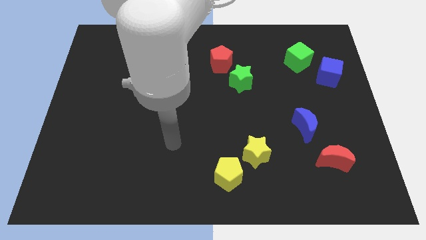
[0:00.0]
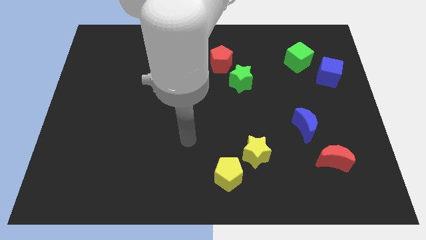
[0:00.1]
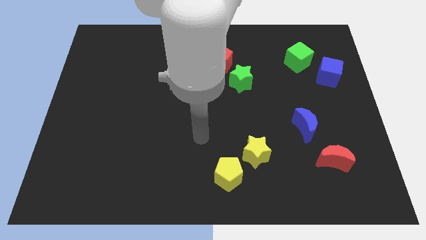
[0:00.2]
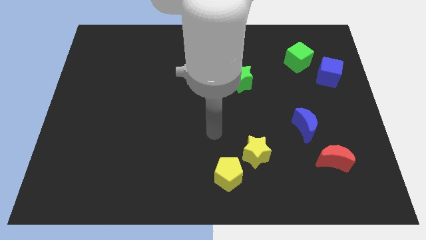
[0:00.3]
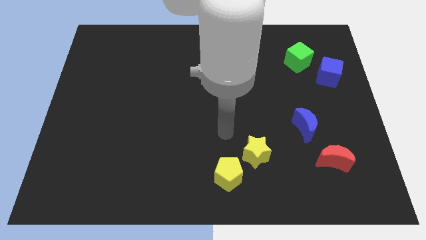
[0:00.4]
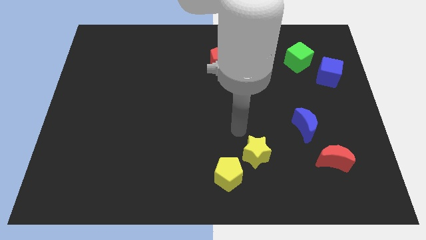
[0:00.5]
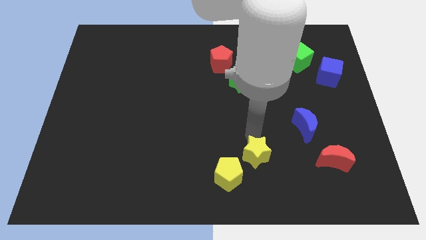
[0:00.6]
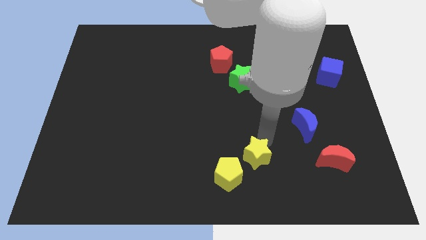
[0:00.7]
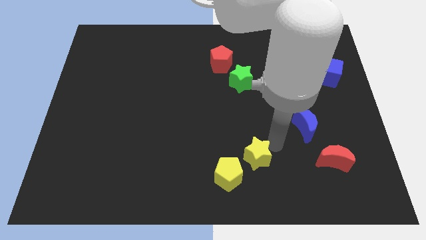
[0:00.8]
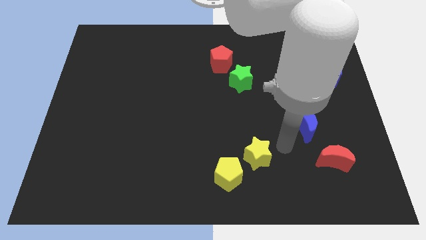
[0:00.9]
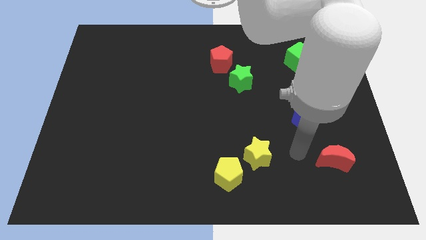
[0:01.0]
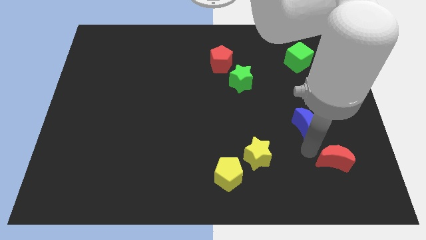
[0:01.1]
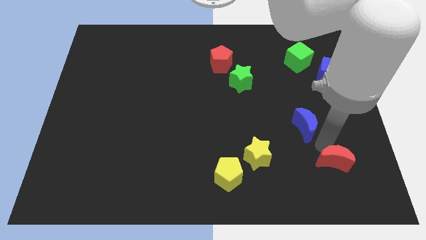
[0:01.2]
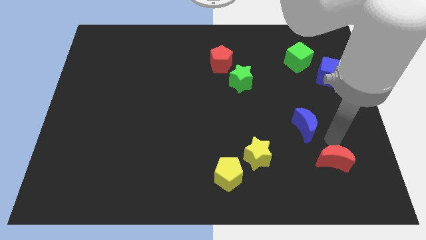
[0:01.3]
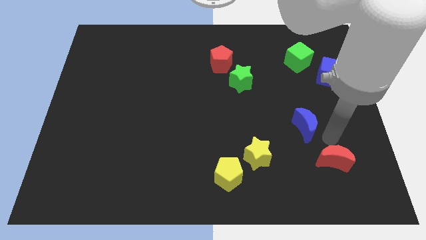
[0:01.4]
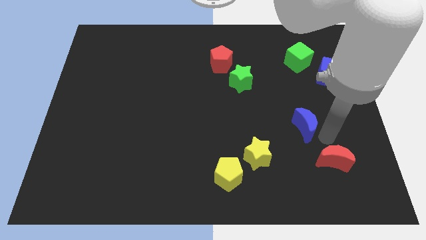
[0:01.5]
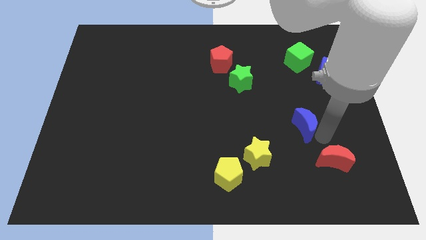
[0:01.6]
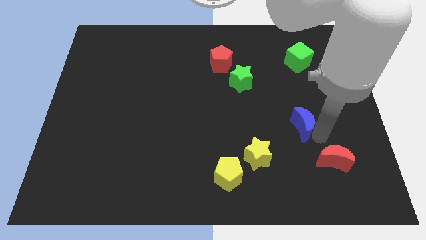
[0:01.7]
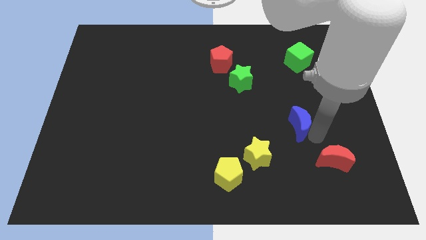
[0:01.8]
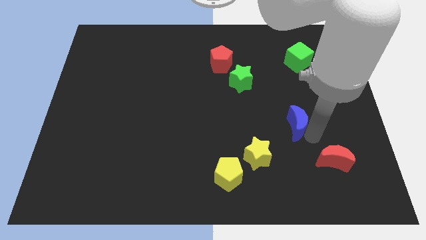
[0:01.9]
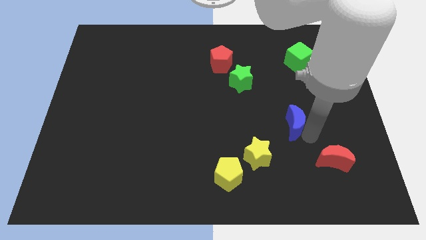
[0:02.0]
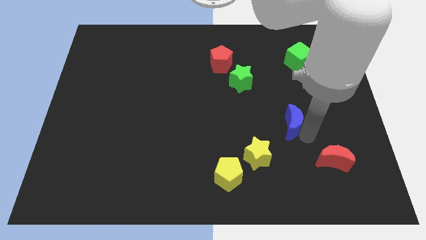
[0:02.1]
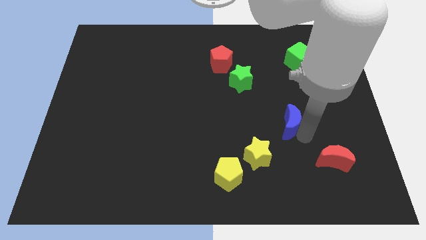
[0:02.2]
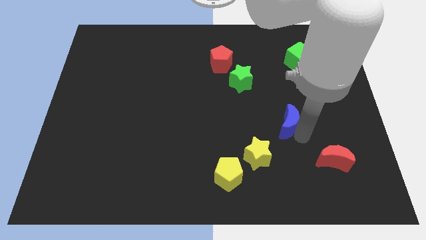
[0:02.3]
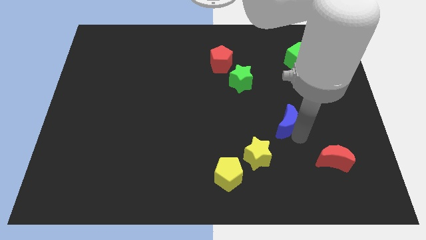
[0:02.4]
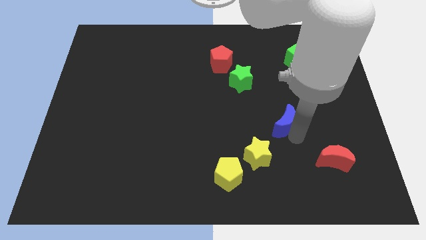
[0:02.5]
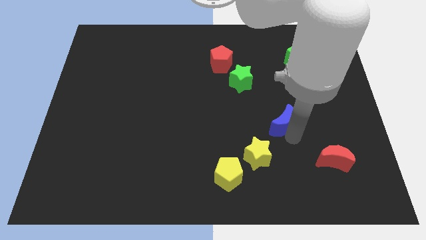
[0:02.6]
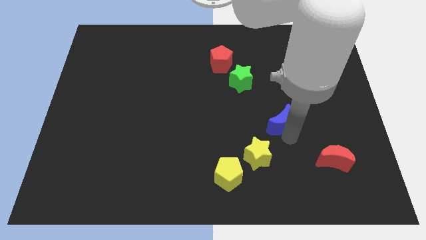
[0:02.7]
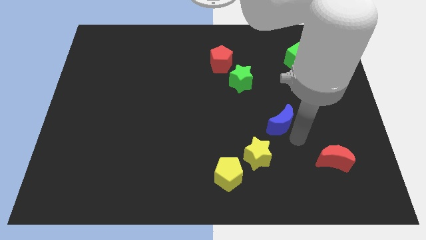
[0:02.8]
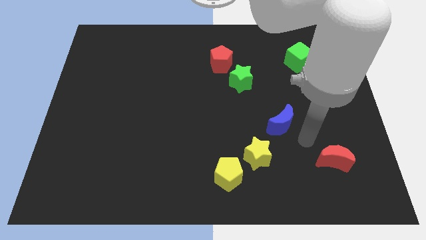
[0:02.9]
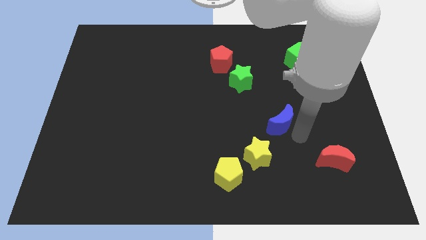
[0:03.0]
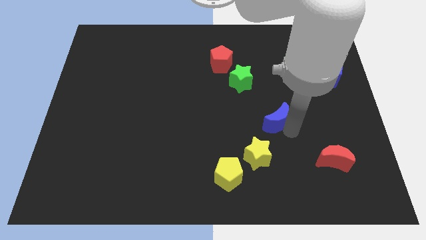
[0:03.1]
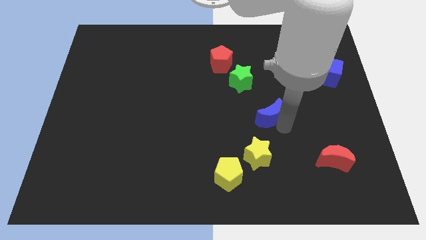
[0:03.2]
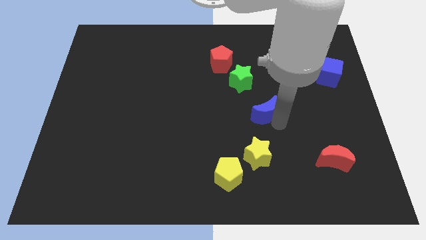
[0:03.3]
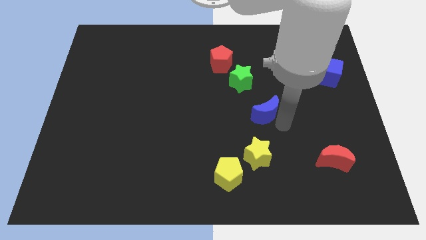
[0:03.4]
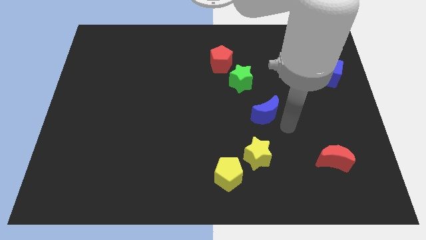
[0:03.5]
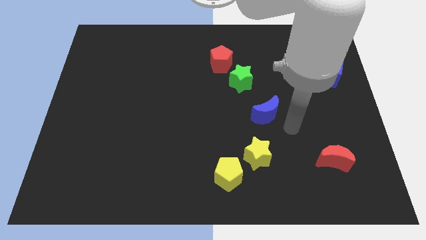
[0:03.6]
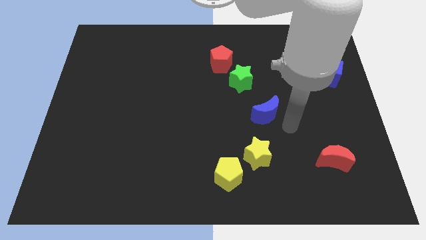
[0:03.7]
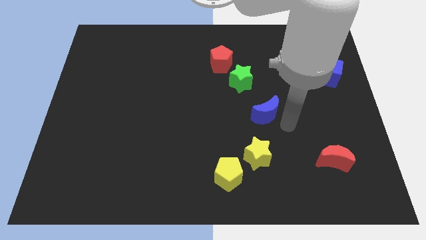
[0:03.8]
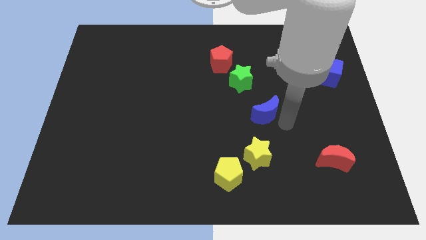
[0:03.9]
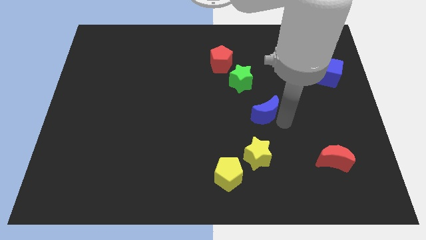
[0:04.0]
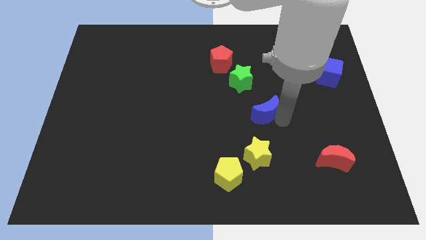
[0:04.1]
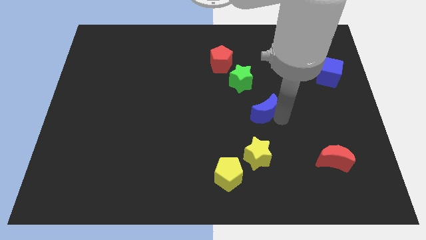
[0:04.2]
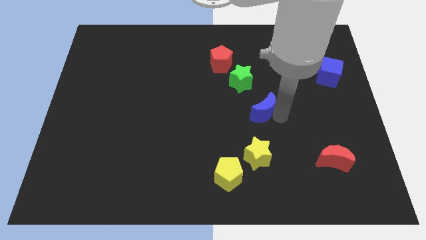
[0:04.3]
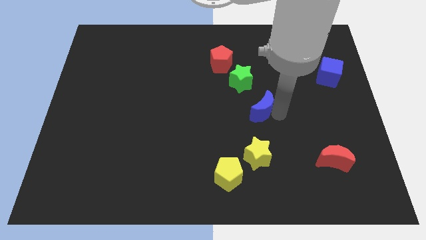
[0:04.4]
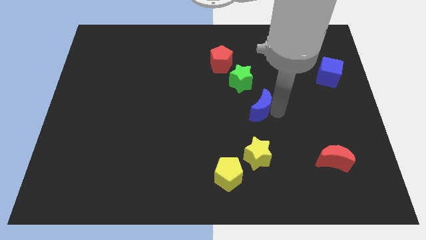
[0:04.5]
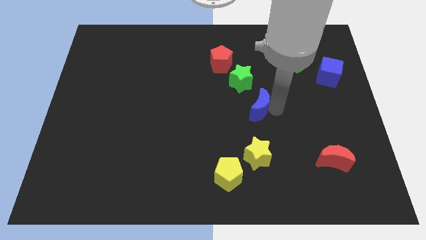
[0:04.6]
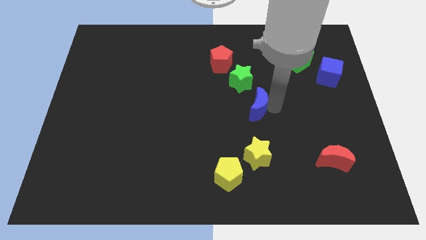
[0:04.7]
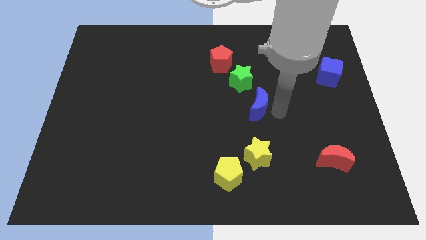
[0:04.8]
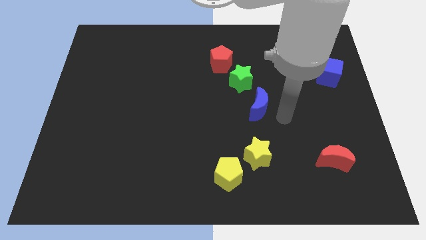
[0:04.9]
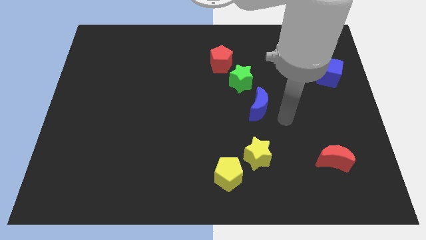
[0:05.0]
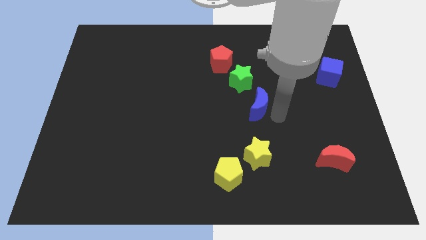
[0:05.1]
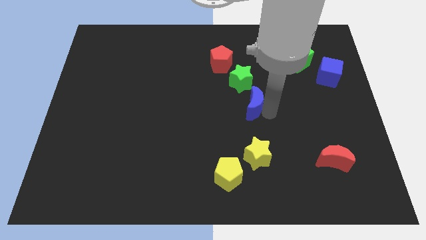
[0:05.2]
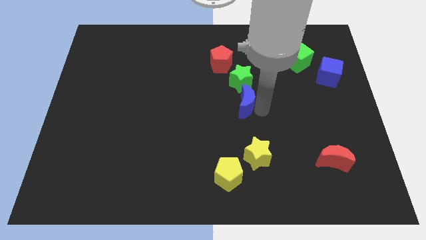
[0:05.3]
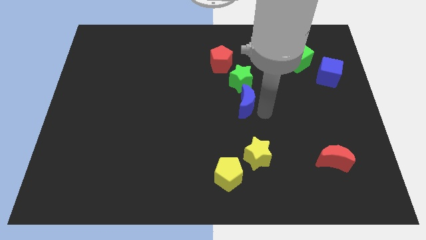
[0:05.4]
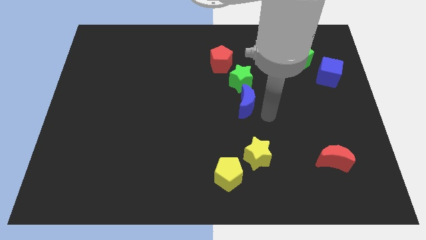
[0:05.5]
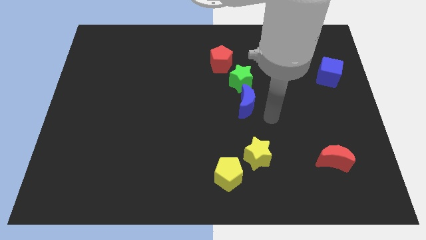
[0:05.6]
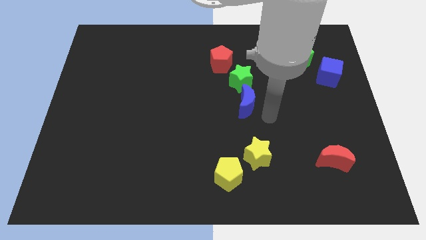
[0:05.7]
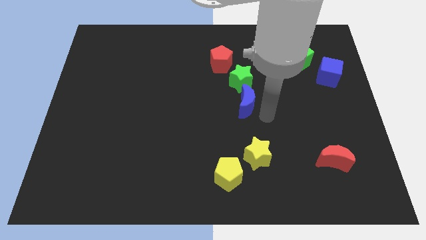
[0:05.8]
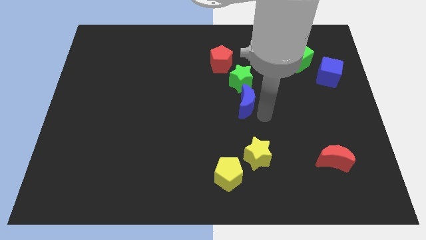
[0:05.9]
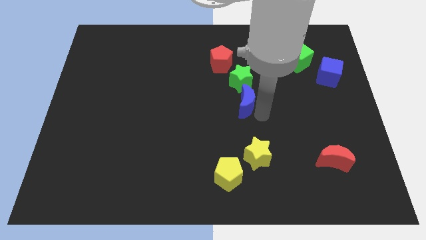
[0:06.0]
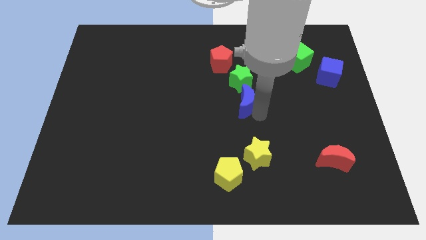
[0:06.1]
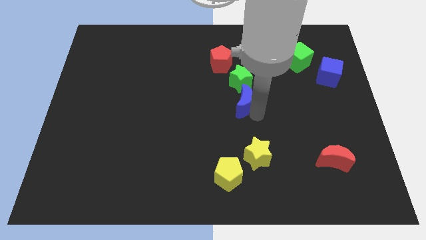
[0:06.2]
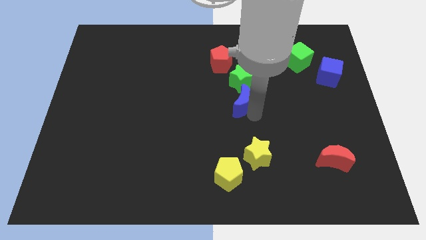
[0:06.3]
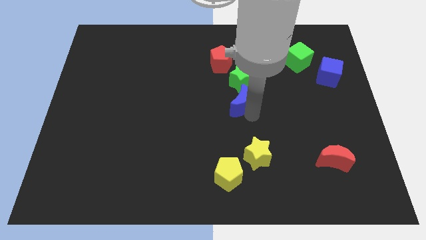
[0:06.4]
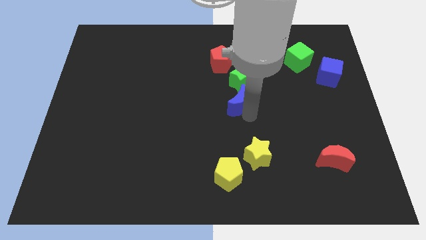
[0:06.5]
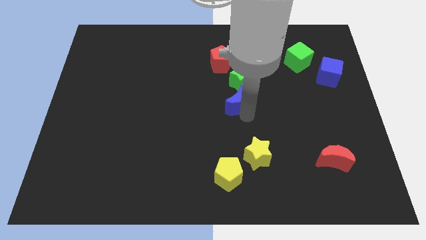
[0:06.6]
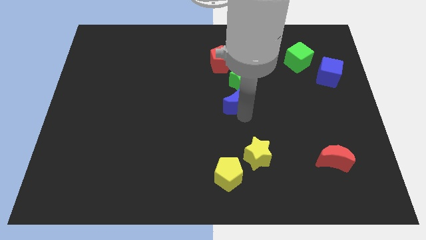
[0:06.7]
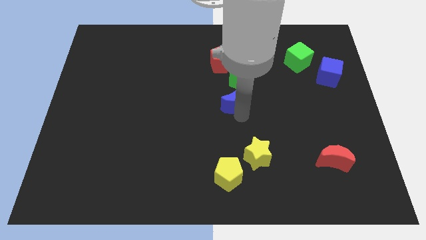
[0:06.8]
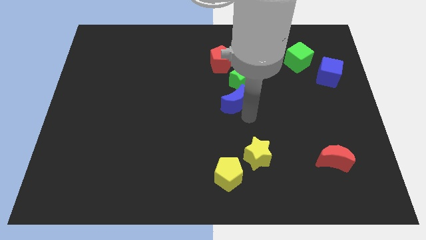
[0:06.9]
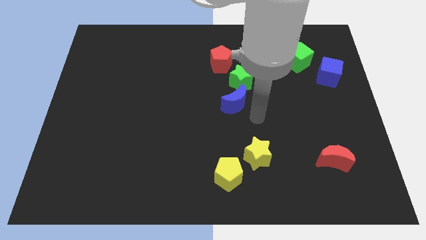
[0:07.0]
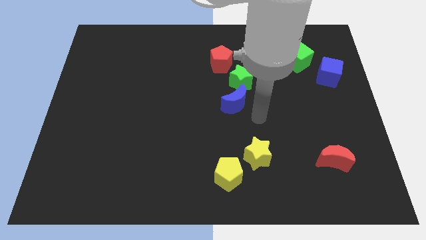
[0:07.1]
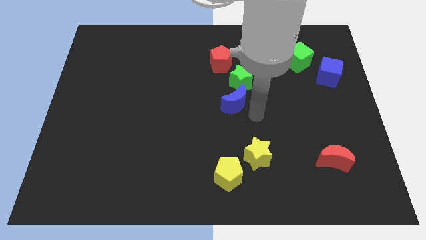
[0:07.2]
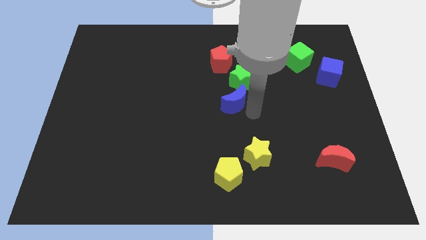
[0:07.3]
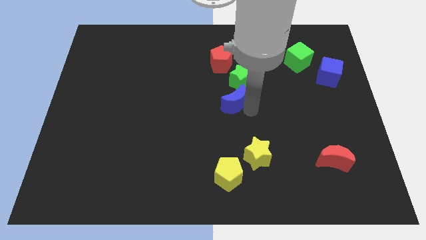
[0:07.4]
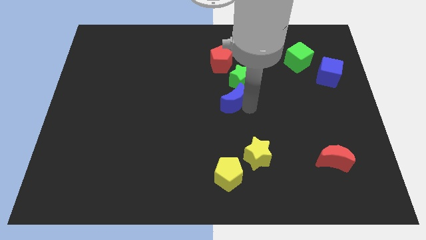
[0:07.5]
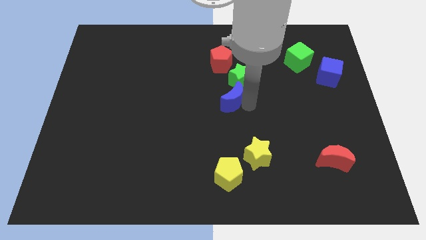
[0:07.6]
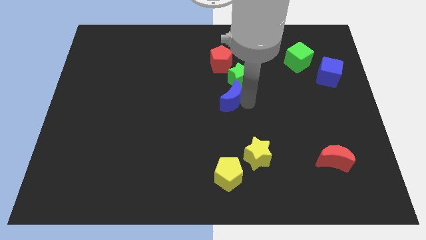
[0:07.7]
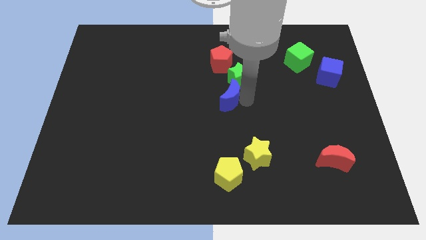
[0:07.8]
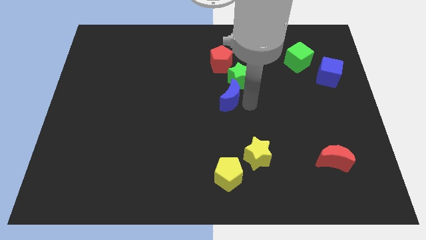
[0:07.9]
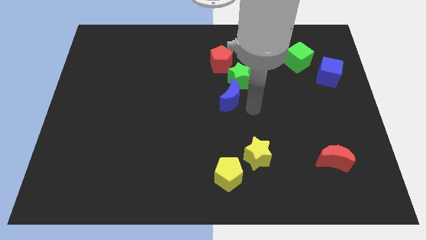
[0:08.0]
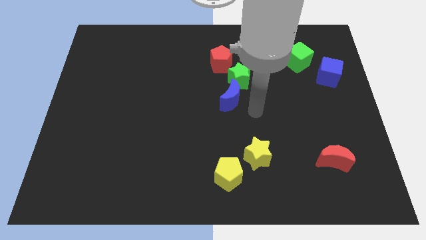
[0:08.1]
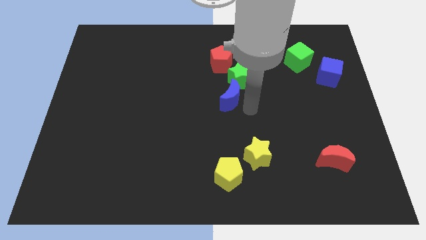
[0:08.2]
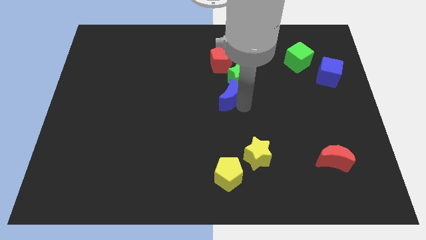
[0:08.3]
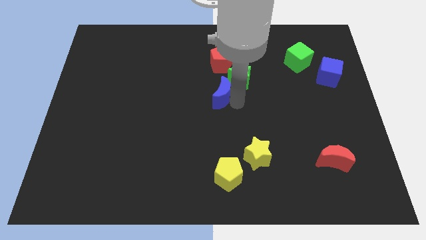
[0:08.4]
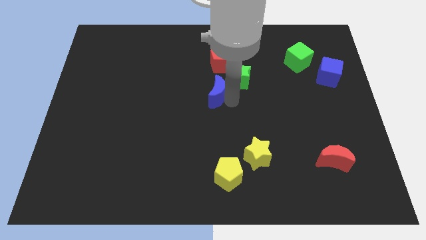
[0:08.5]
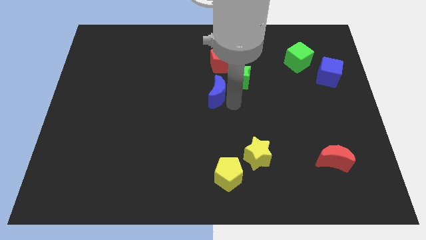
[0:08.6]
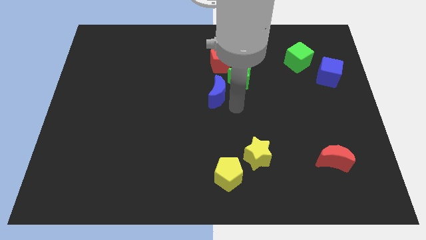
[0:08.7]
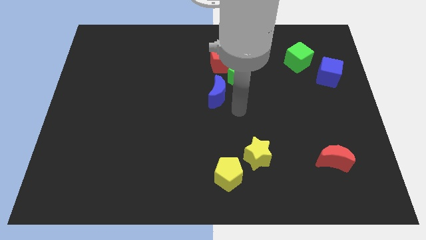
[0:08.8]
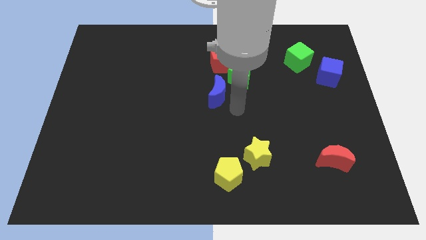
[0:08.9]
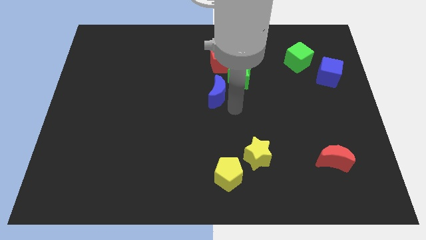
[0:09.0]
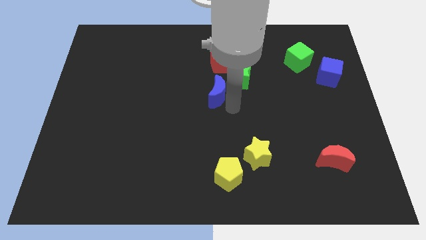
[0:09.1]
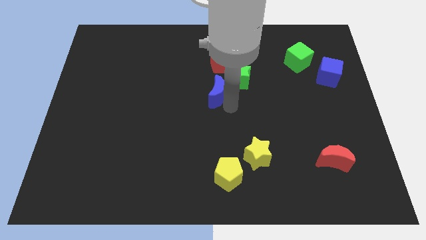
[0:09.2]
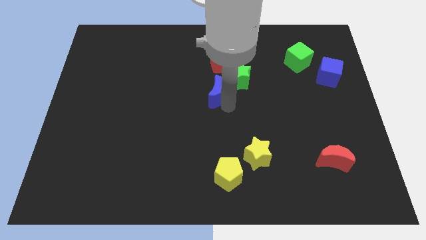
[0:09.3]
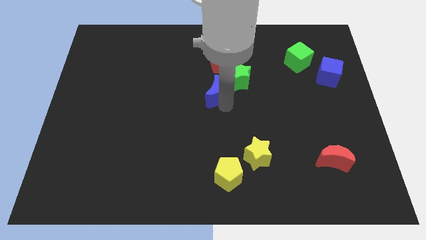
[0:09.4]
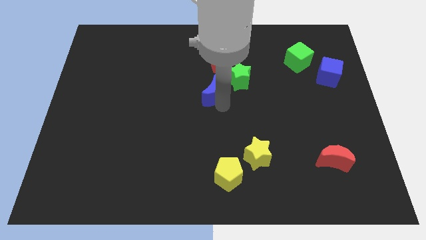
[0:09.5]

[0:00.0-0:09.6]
move the blue moon just left of the green star
